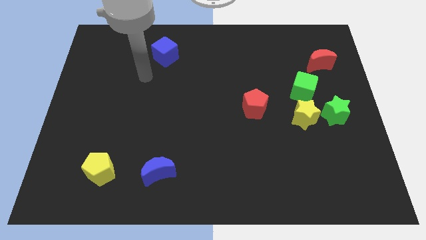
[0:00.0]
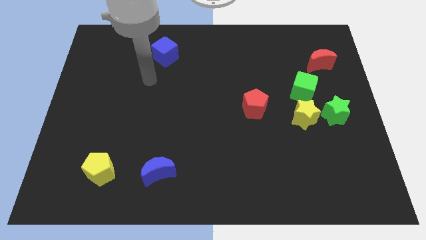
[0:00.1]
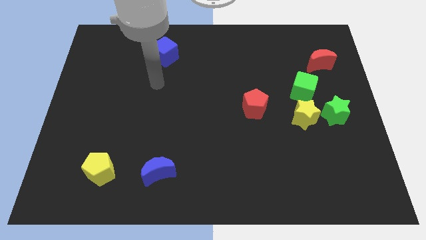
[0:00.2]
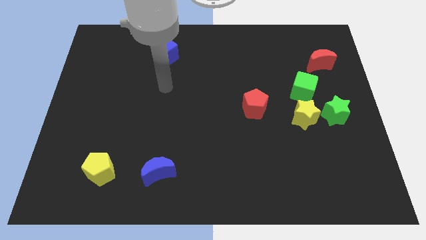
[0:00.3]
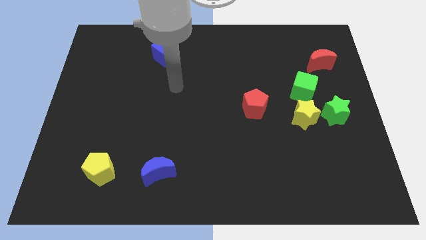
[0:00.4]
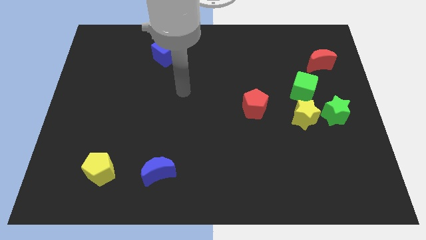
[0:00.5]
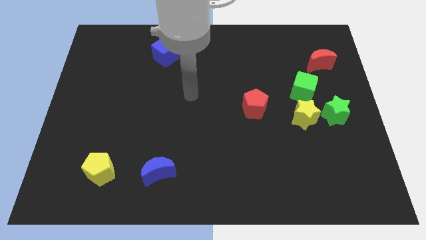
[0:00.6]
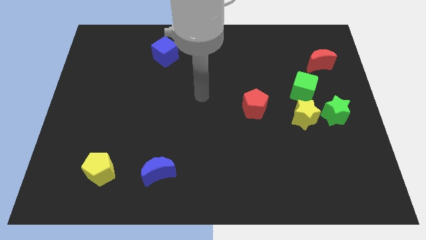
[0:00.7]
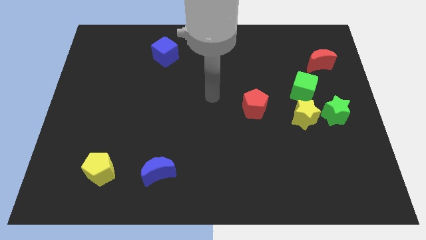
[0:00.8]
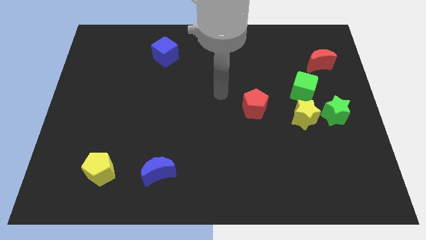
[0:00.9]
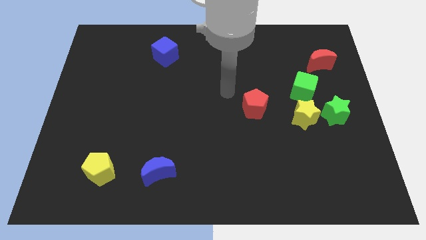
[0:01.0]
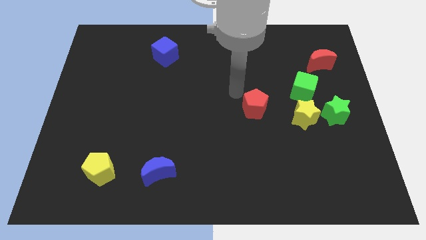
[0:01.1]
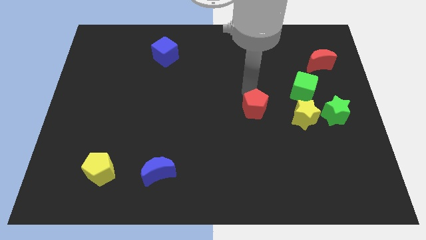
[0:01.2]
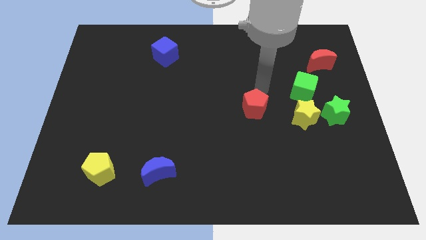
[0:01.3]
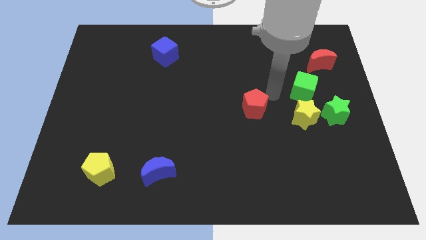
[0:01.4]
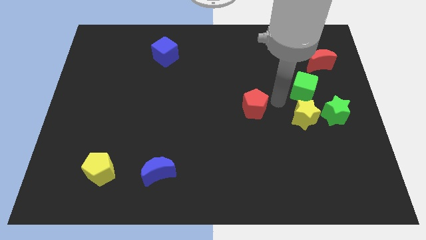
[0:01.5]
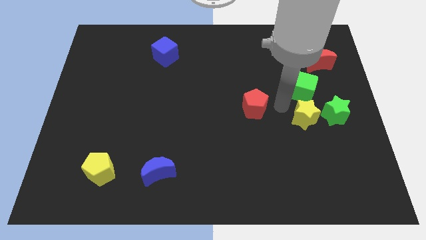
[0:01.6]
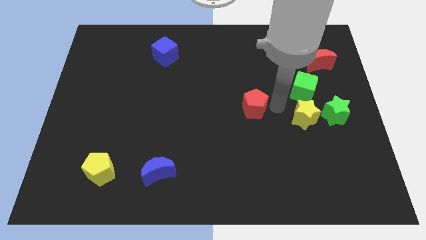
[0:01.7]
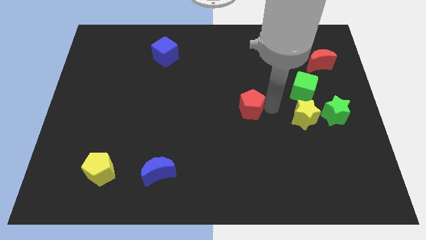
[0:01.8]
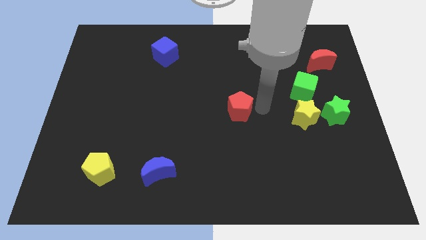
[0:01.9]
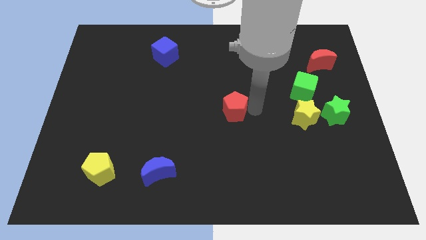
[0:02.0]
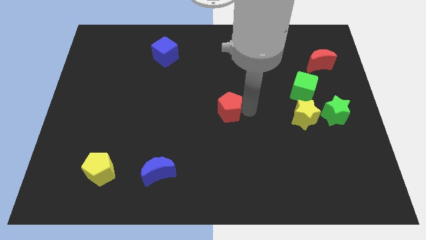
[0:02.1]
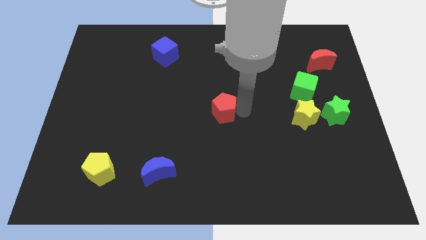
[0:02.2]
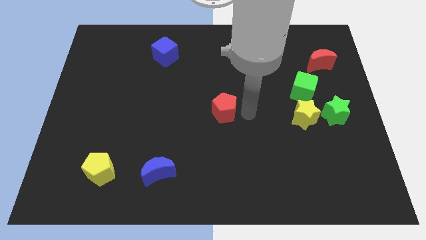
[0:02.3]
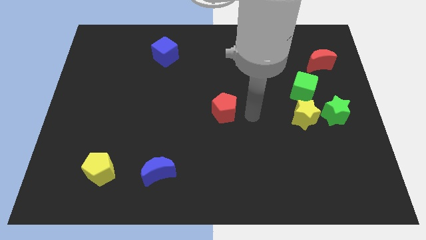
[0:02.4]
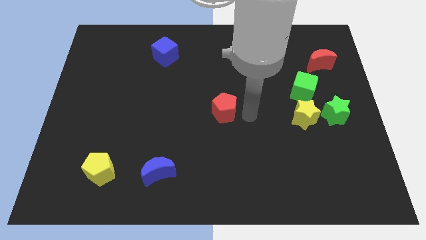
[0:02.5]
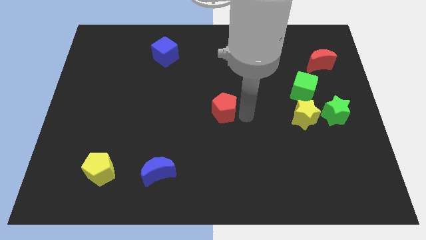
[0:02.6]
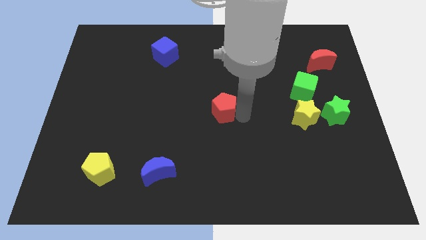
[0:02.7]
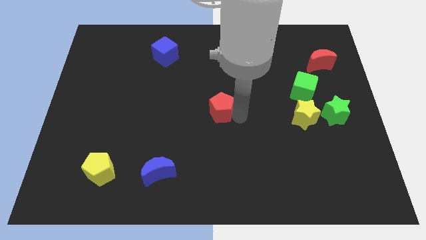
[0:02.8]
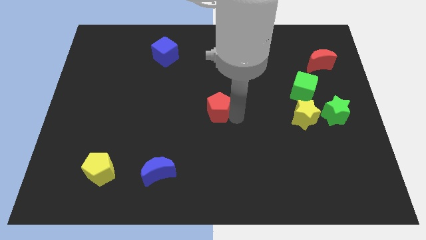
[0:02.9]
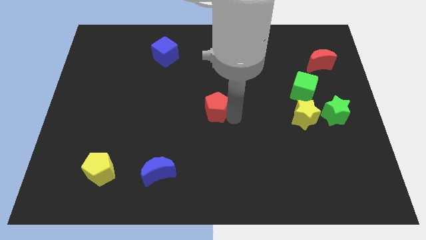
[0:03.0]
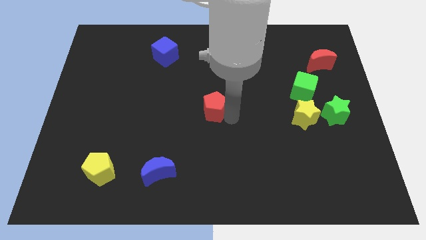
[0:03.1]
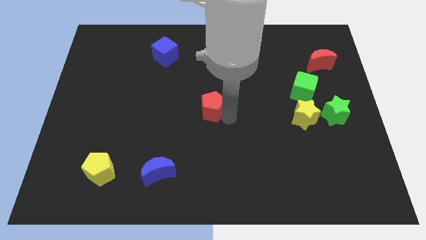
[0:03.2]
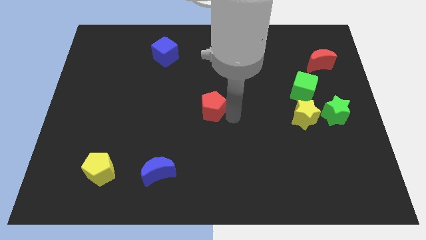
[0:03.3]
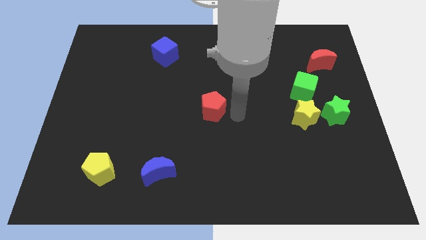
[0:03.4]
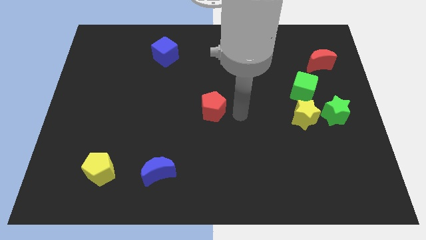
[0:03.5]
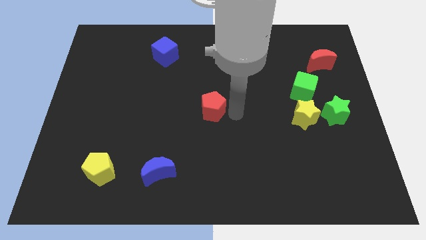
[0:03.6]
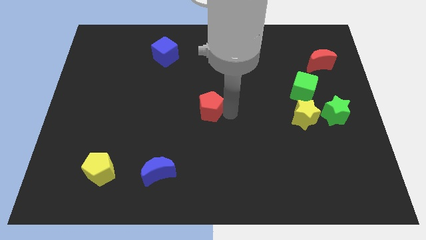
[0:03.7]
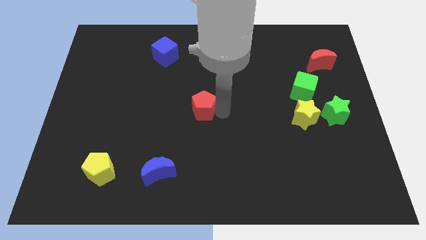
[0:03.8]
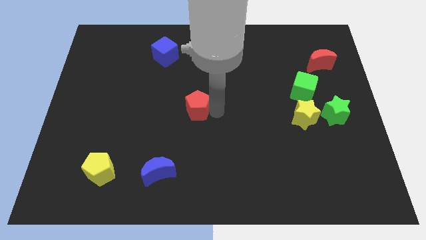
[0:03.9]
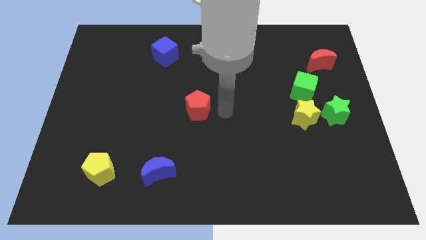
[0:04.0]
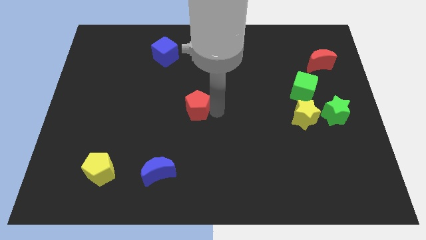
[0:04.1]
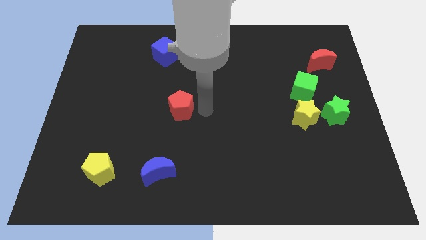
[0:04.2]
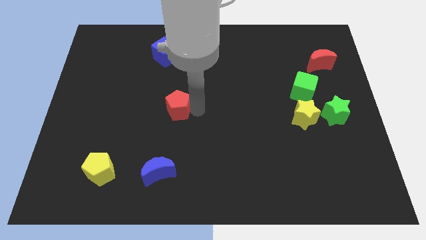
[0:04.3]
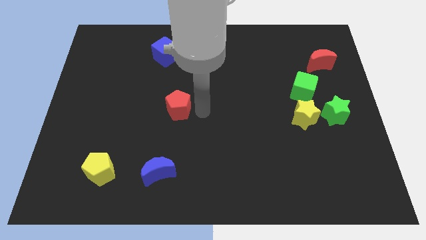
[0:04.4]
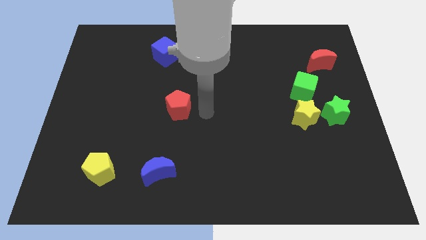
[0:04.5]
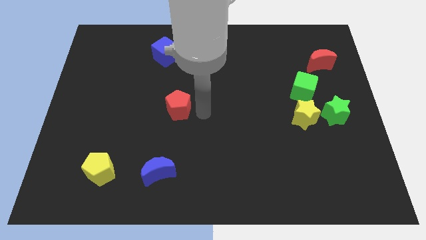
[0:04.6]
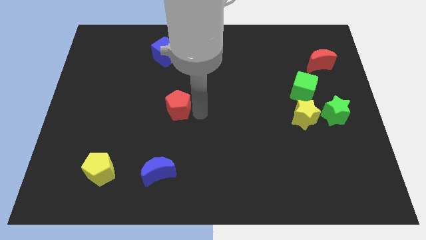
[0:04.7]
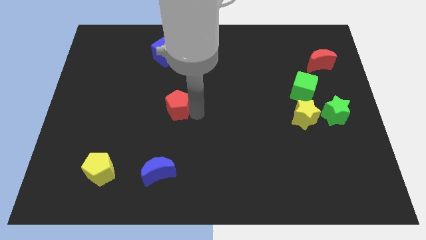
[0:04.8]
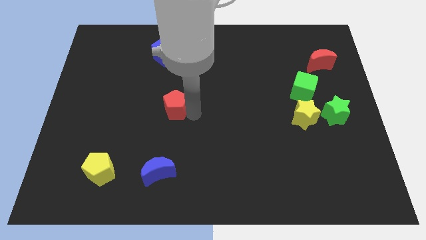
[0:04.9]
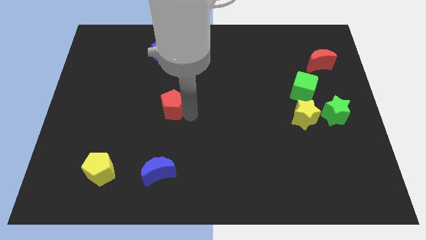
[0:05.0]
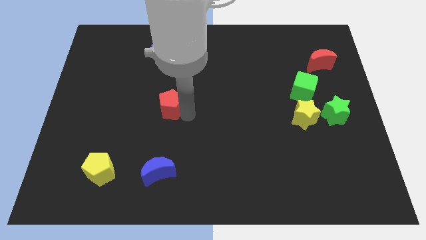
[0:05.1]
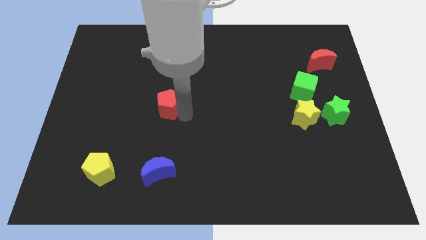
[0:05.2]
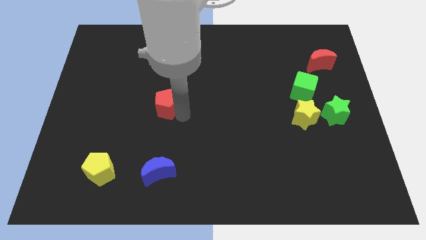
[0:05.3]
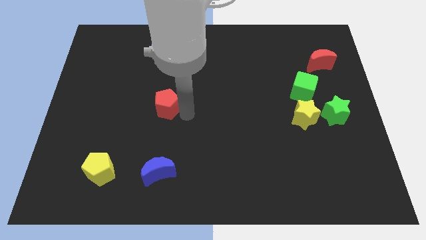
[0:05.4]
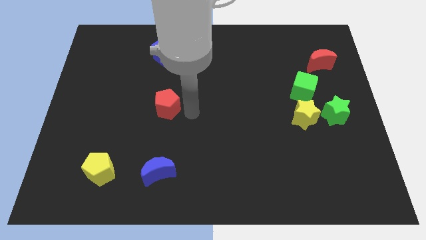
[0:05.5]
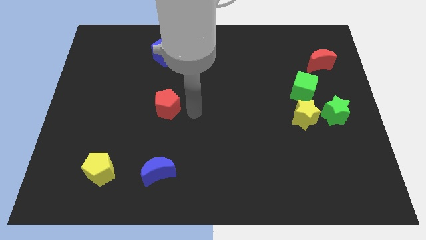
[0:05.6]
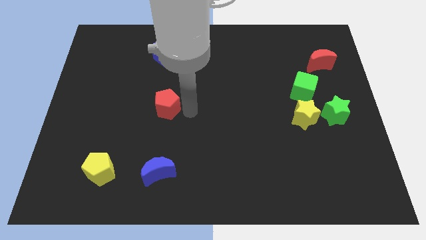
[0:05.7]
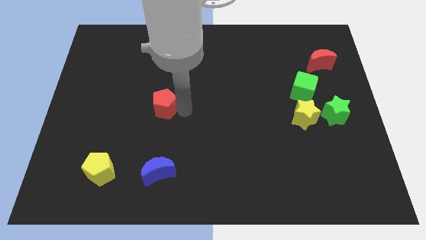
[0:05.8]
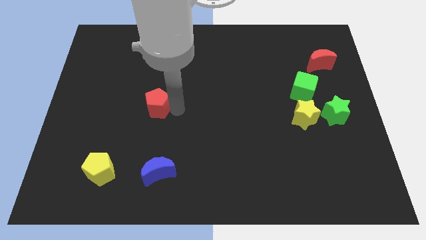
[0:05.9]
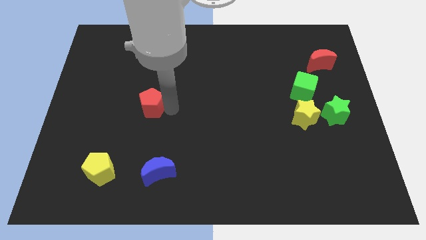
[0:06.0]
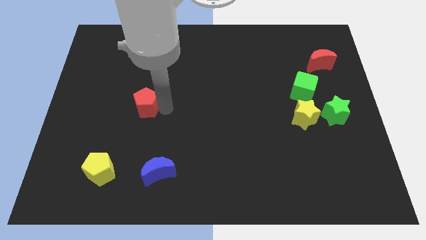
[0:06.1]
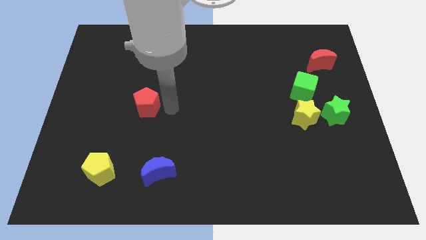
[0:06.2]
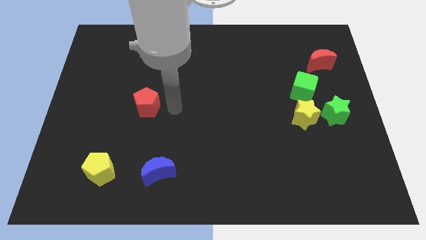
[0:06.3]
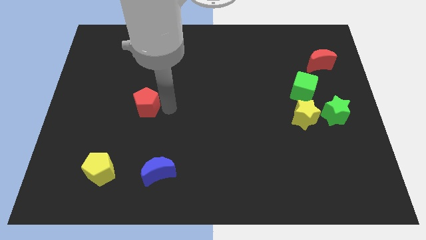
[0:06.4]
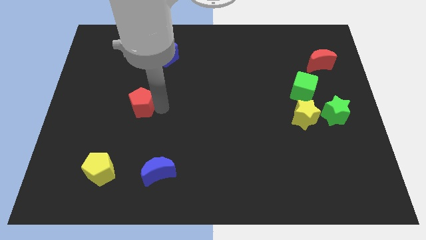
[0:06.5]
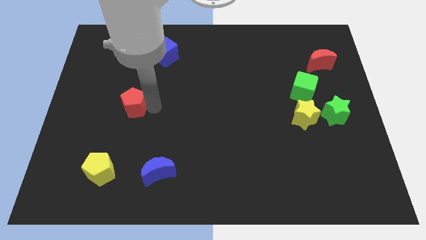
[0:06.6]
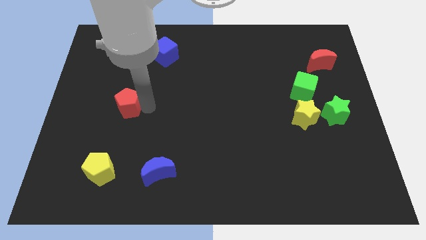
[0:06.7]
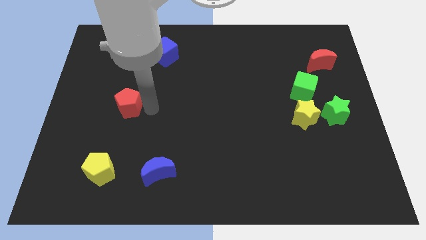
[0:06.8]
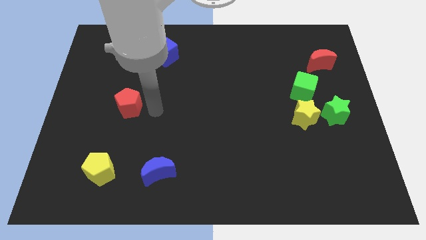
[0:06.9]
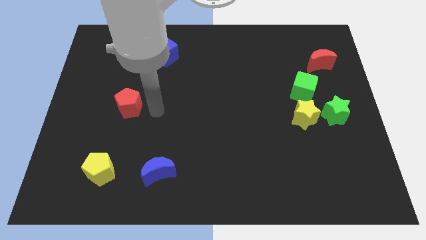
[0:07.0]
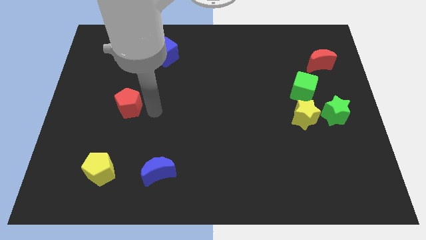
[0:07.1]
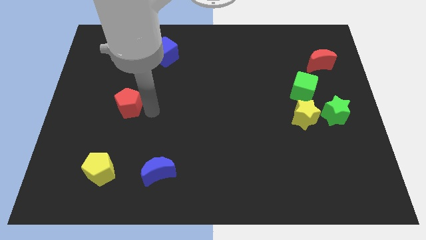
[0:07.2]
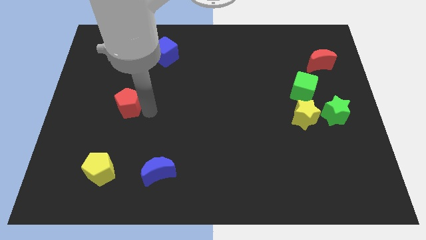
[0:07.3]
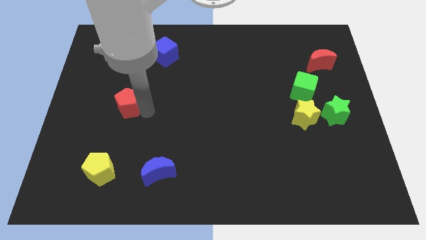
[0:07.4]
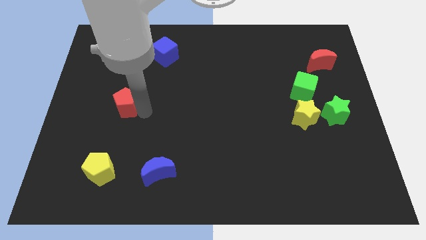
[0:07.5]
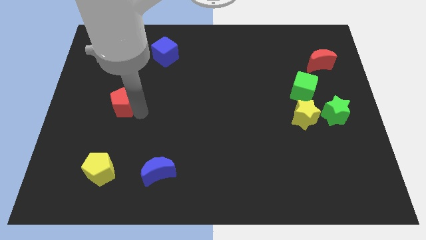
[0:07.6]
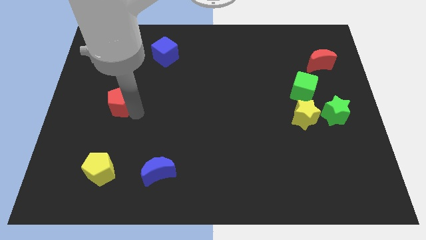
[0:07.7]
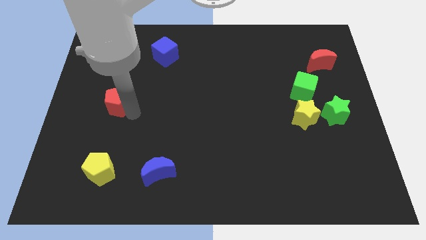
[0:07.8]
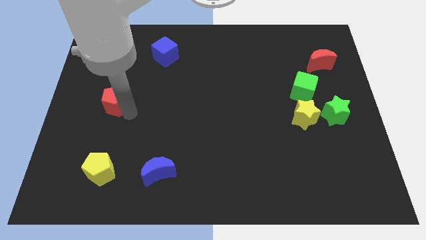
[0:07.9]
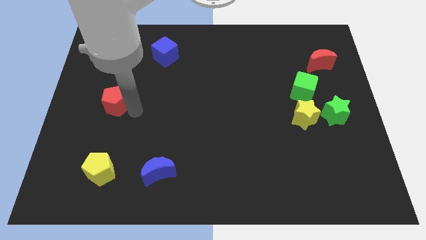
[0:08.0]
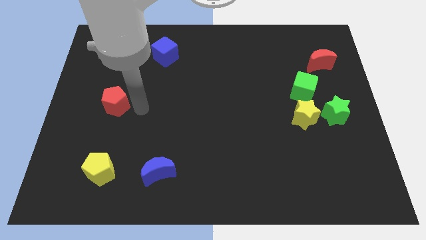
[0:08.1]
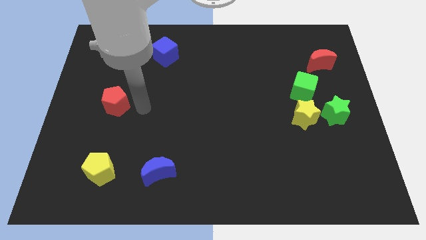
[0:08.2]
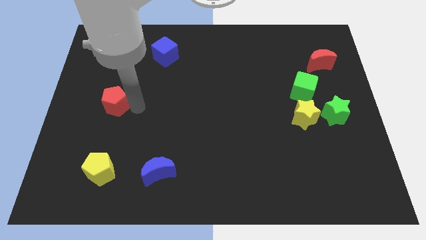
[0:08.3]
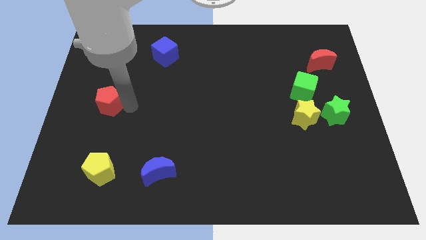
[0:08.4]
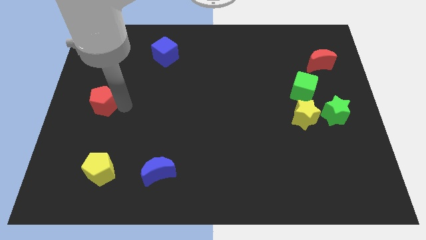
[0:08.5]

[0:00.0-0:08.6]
push the red pentagon to the left side
